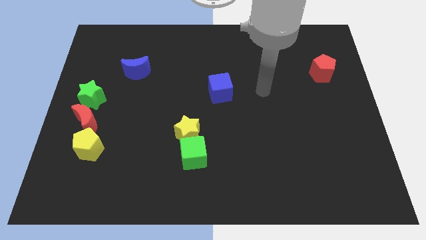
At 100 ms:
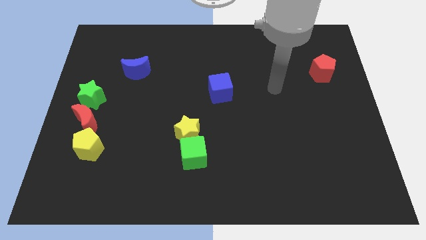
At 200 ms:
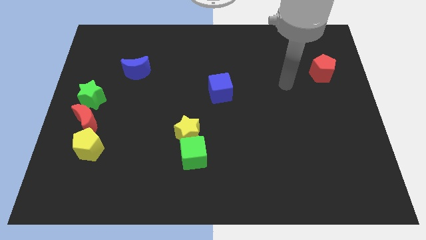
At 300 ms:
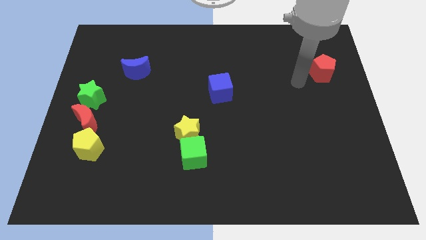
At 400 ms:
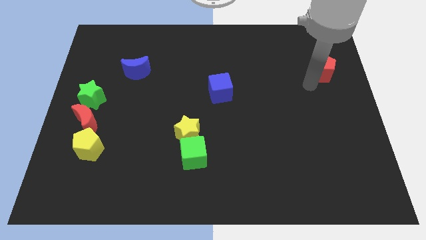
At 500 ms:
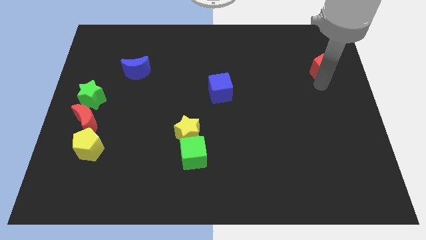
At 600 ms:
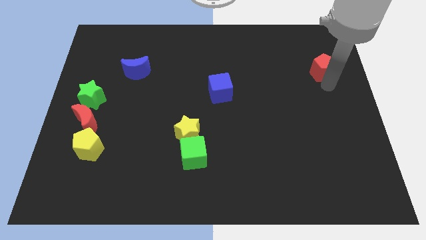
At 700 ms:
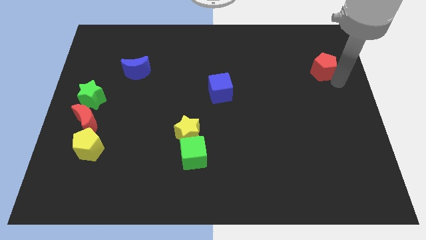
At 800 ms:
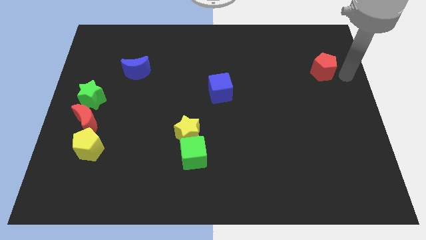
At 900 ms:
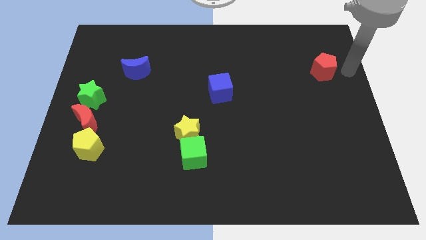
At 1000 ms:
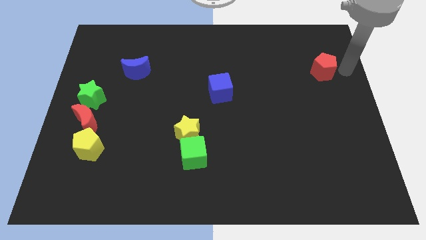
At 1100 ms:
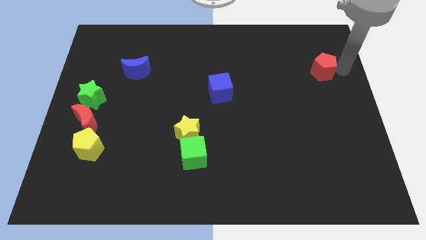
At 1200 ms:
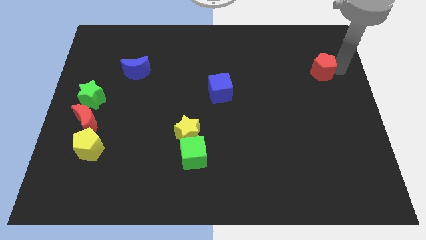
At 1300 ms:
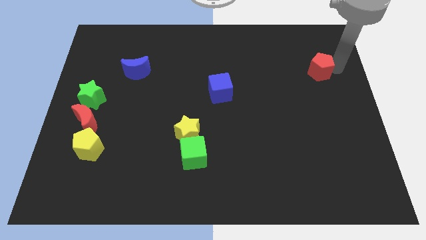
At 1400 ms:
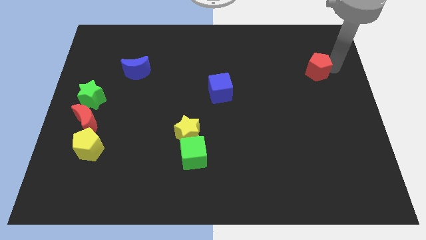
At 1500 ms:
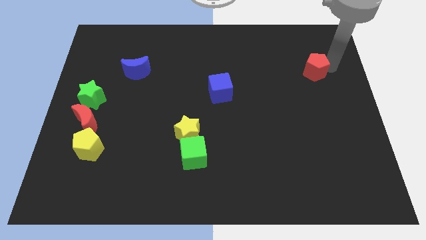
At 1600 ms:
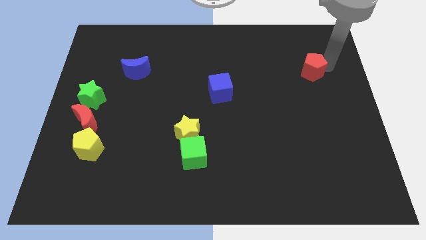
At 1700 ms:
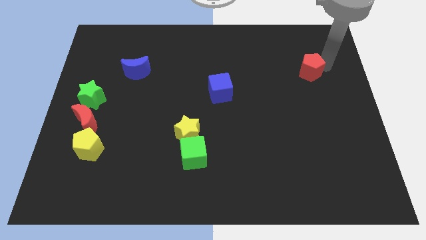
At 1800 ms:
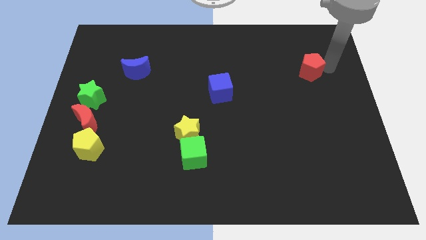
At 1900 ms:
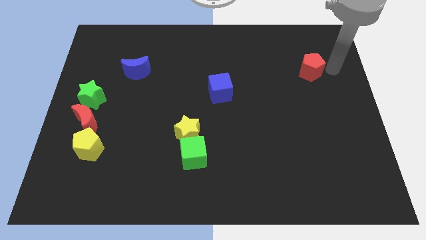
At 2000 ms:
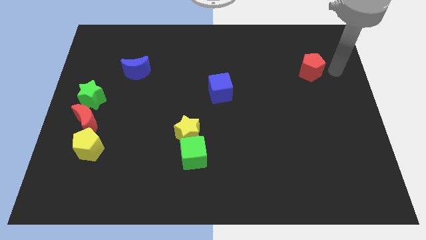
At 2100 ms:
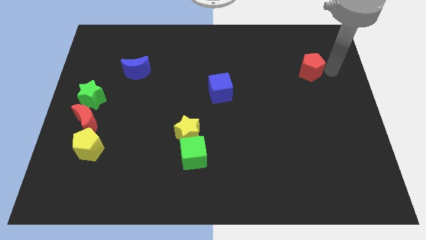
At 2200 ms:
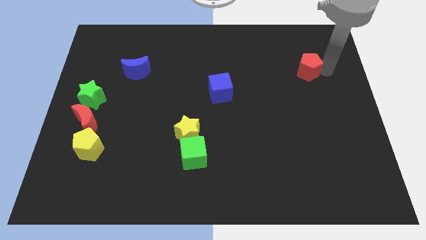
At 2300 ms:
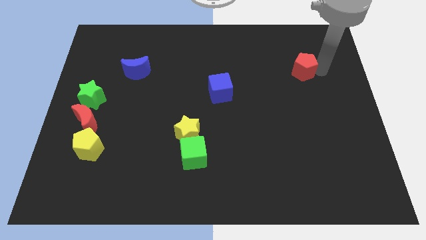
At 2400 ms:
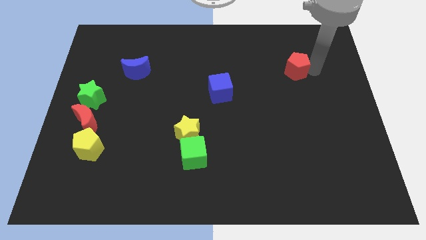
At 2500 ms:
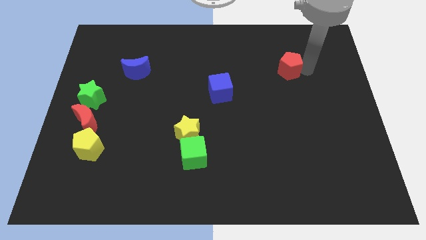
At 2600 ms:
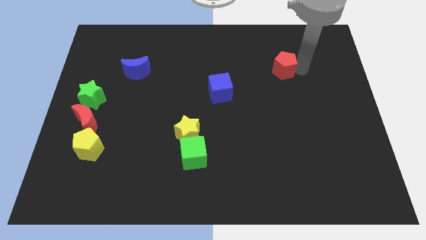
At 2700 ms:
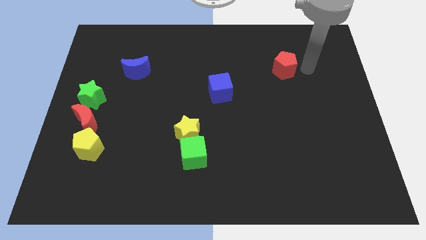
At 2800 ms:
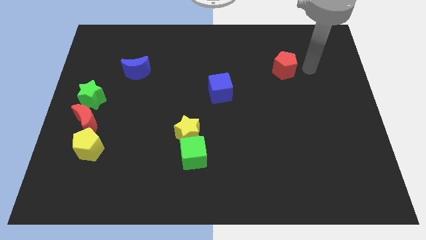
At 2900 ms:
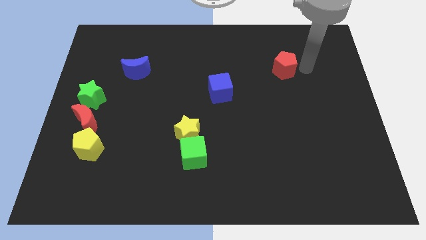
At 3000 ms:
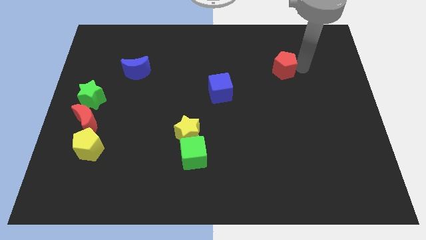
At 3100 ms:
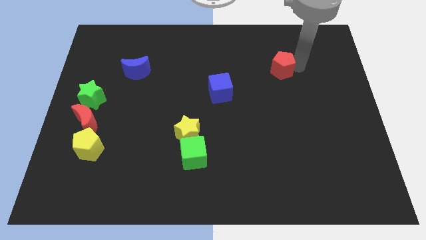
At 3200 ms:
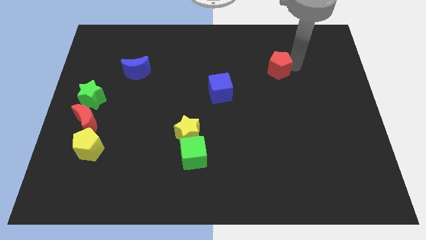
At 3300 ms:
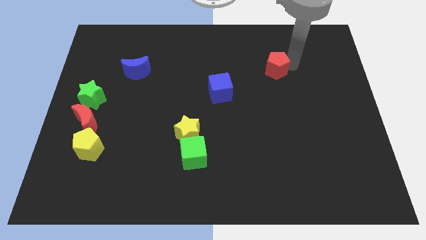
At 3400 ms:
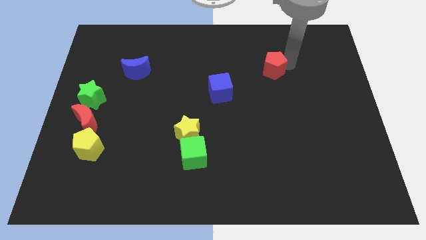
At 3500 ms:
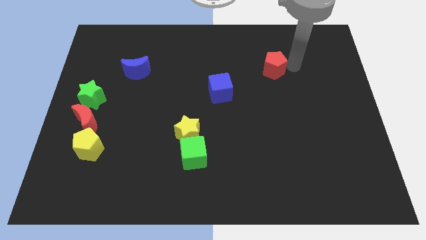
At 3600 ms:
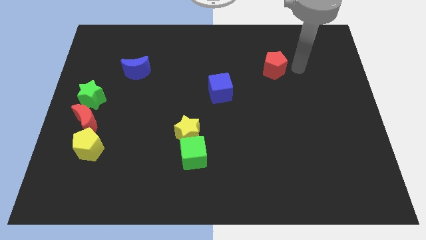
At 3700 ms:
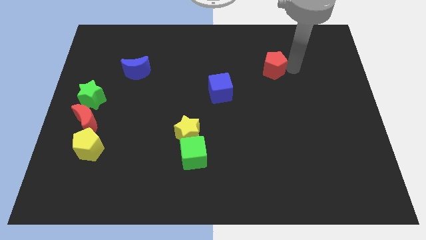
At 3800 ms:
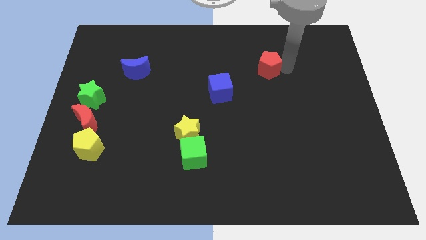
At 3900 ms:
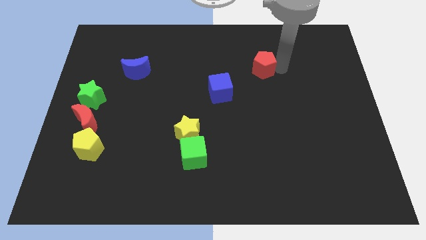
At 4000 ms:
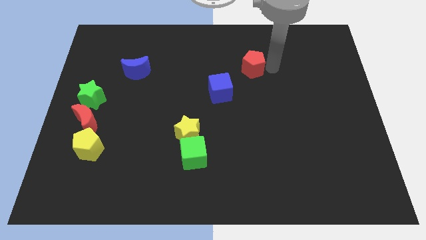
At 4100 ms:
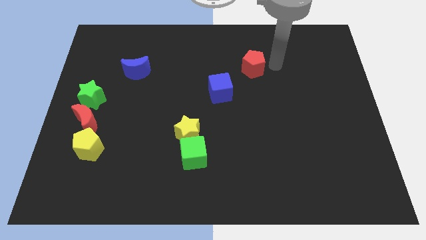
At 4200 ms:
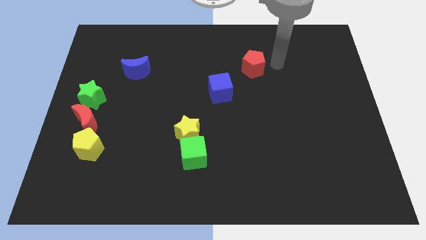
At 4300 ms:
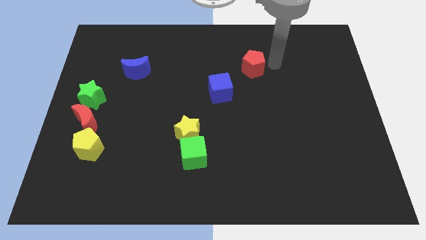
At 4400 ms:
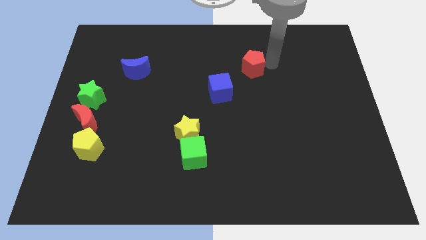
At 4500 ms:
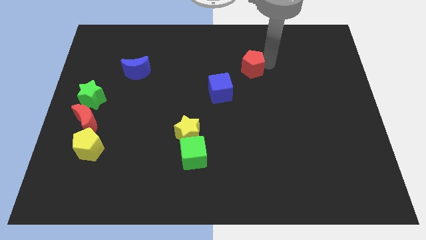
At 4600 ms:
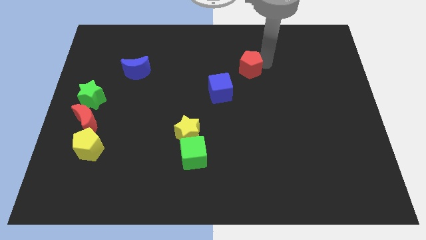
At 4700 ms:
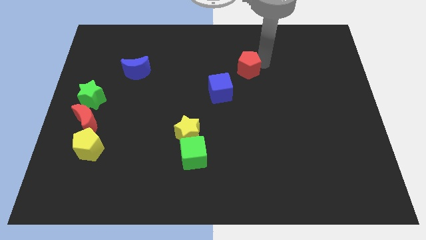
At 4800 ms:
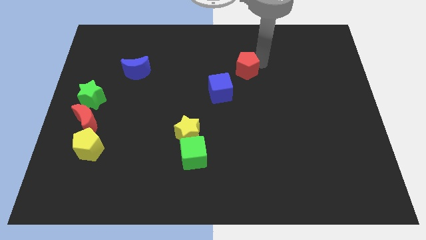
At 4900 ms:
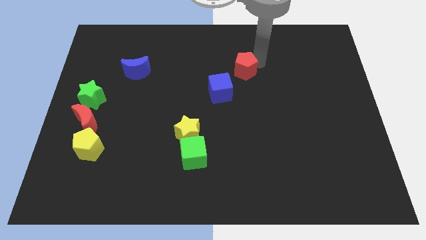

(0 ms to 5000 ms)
slide the red pentagon left

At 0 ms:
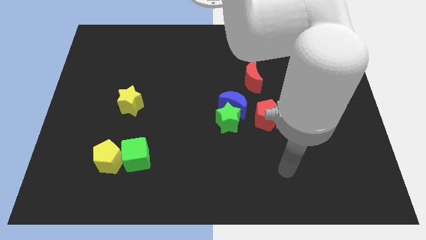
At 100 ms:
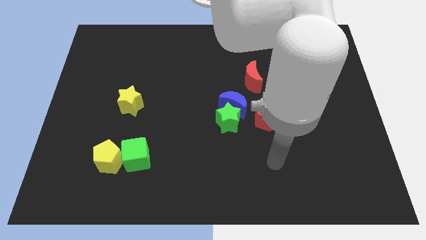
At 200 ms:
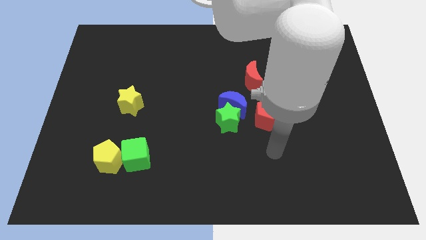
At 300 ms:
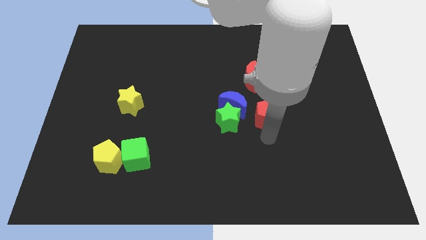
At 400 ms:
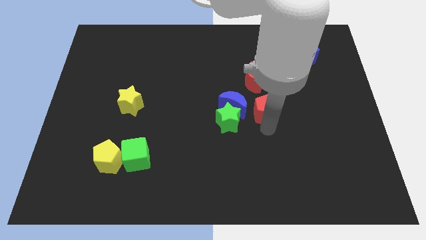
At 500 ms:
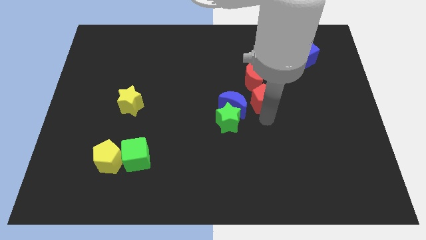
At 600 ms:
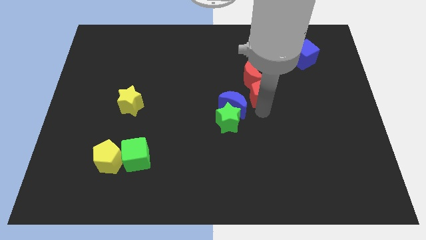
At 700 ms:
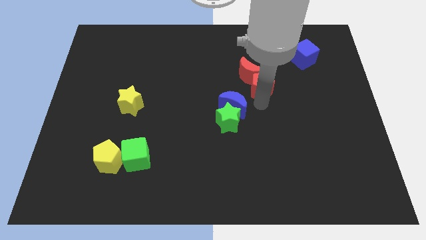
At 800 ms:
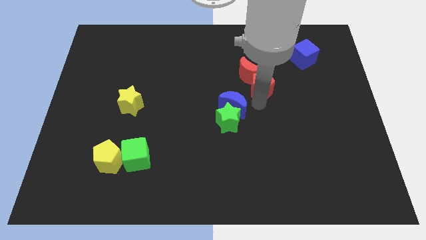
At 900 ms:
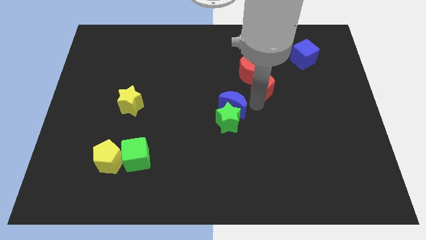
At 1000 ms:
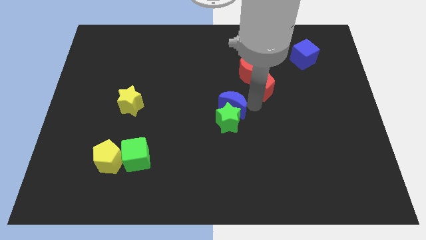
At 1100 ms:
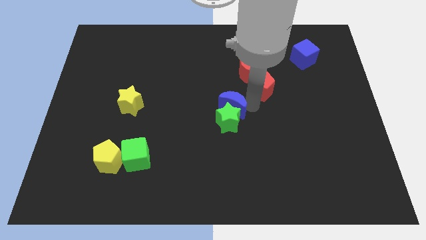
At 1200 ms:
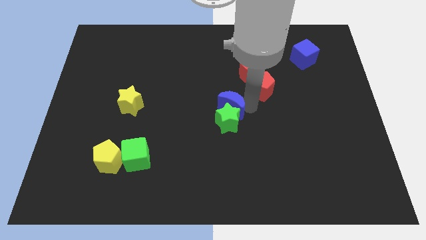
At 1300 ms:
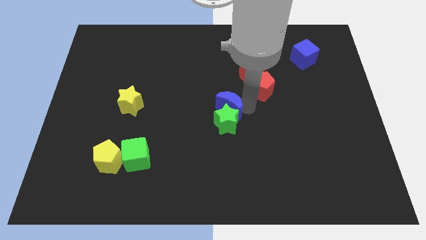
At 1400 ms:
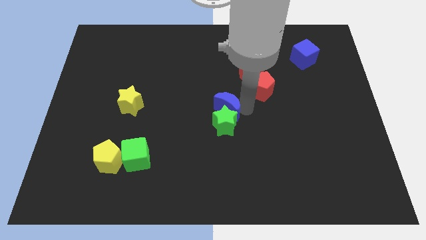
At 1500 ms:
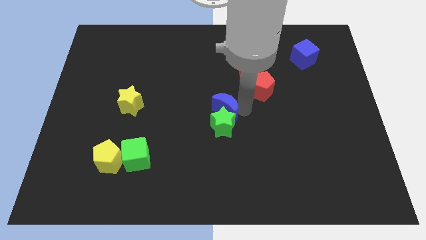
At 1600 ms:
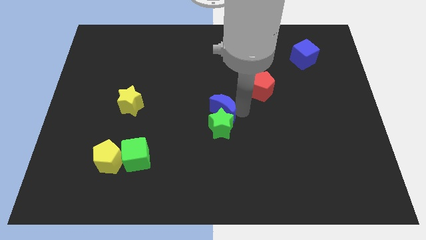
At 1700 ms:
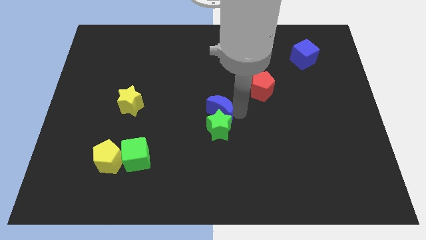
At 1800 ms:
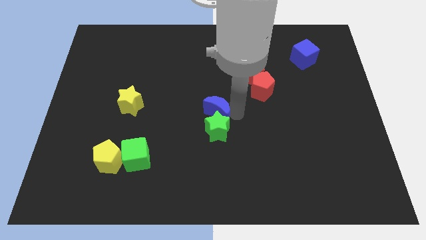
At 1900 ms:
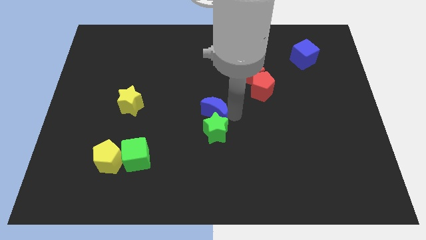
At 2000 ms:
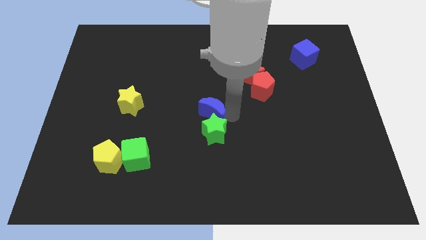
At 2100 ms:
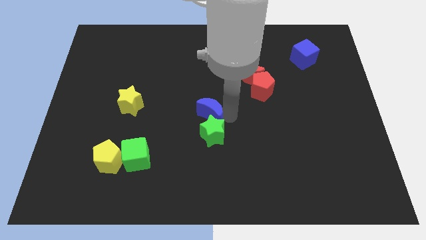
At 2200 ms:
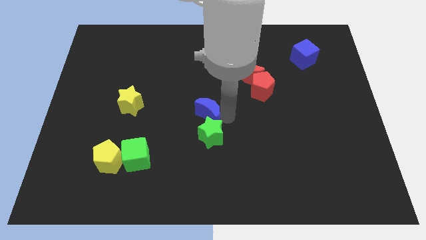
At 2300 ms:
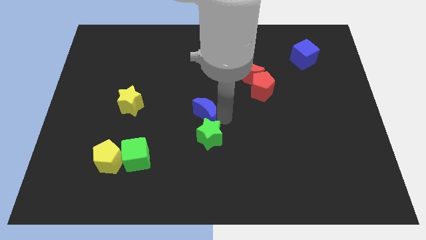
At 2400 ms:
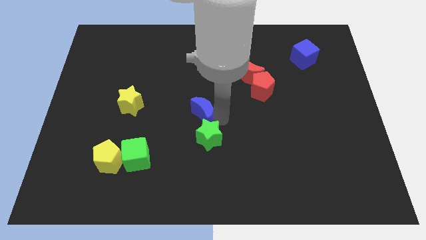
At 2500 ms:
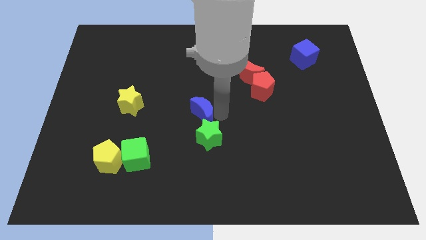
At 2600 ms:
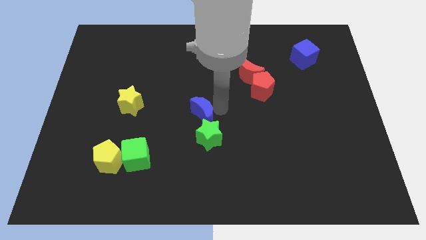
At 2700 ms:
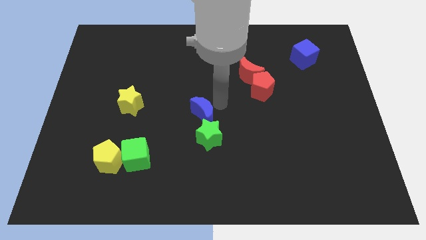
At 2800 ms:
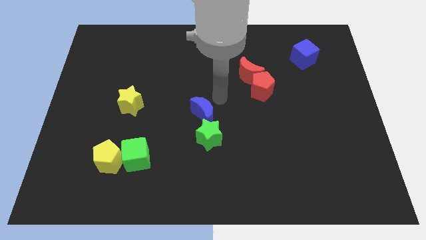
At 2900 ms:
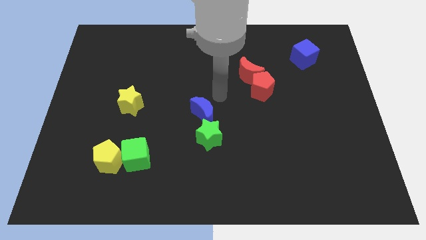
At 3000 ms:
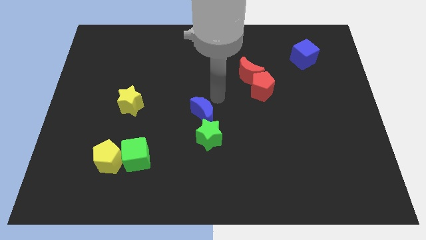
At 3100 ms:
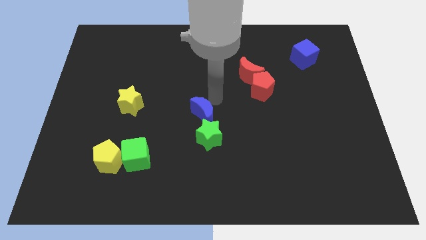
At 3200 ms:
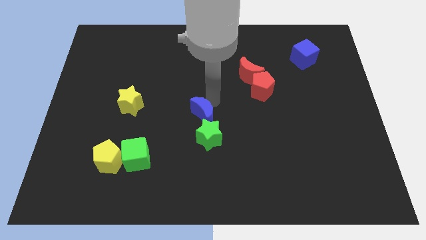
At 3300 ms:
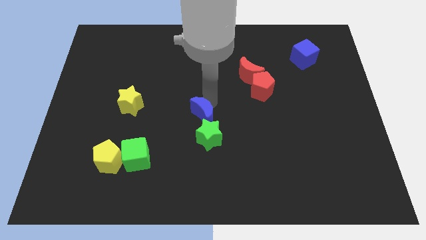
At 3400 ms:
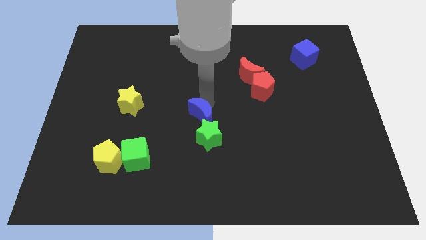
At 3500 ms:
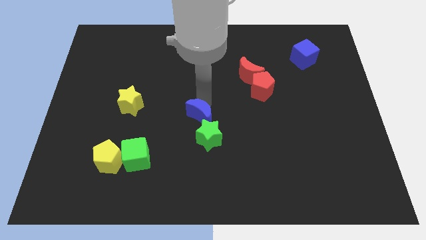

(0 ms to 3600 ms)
move the blue moon down and to the left somewhat
